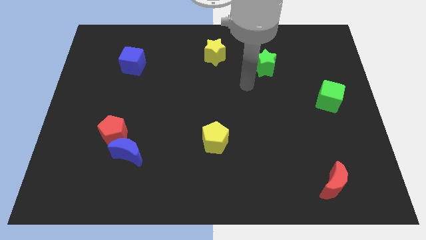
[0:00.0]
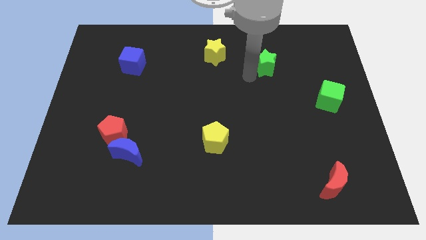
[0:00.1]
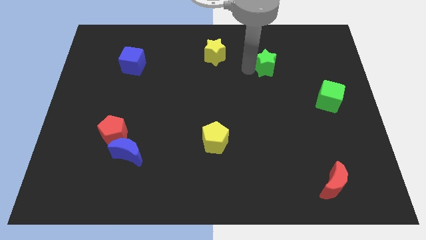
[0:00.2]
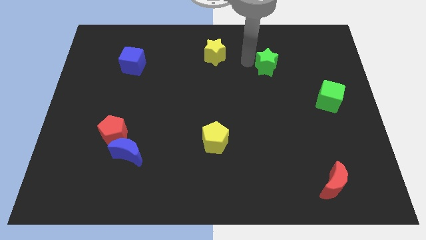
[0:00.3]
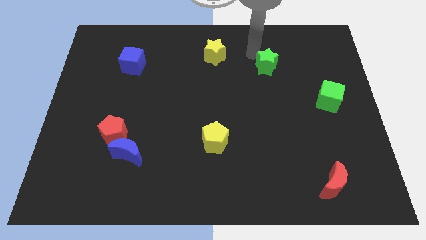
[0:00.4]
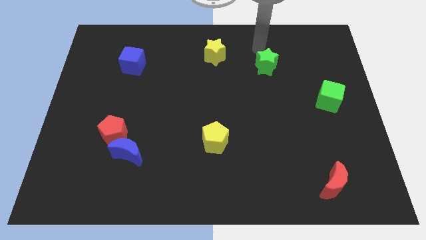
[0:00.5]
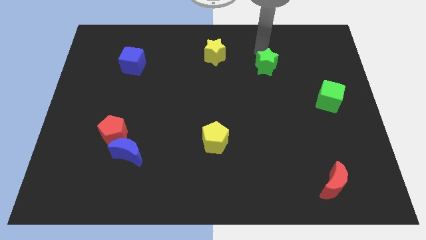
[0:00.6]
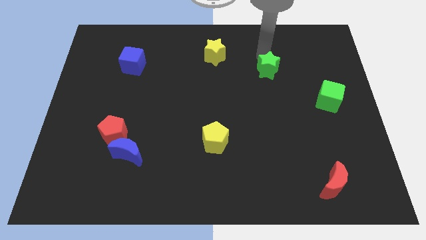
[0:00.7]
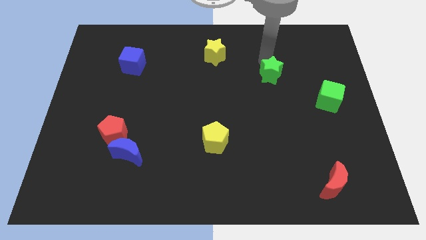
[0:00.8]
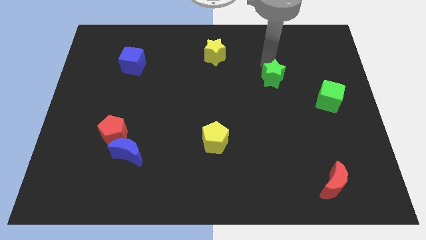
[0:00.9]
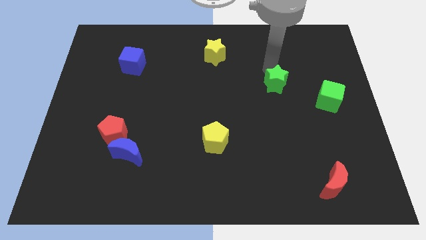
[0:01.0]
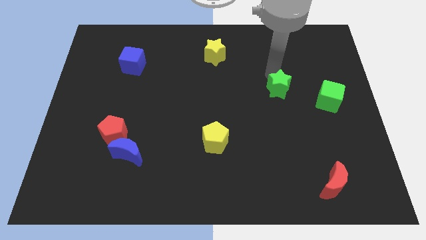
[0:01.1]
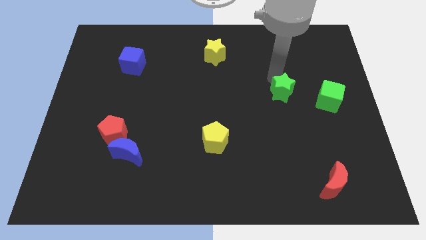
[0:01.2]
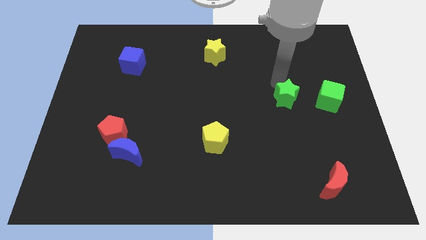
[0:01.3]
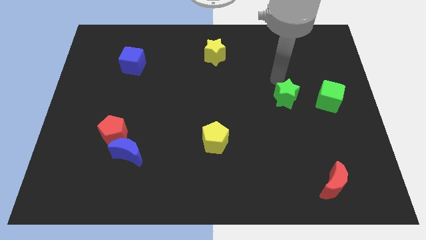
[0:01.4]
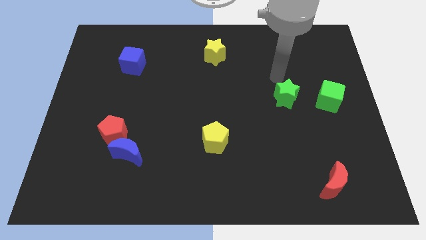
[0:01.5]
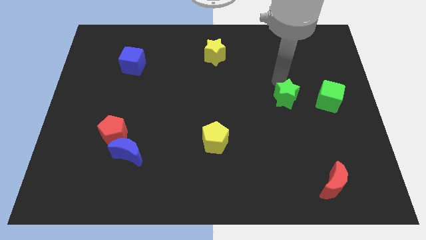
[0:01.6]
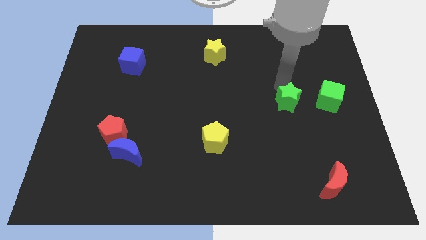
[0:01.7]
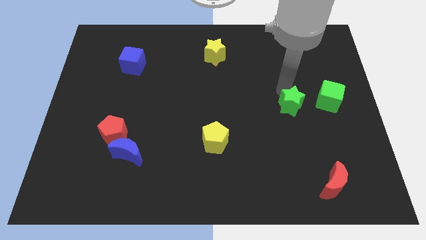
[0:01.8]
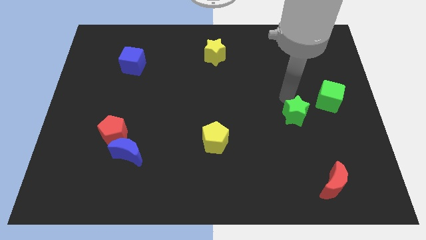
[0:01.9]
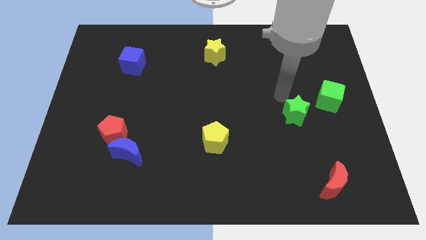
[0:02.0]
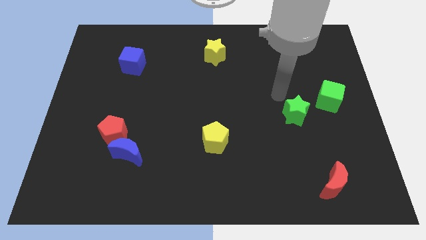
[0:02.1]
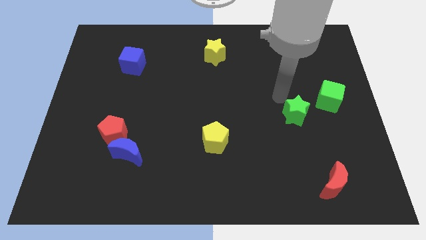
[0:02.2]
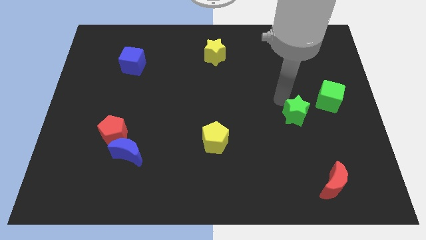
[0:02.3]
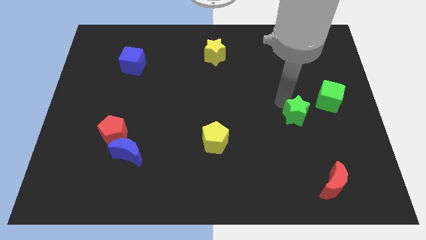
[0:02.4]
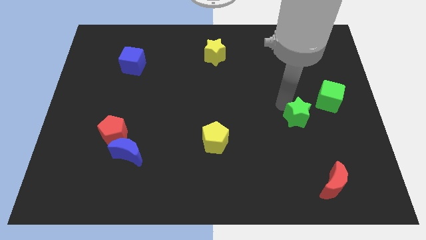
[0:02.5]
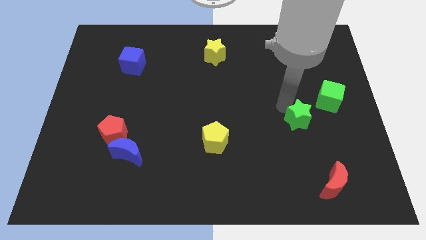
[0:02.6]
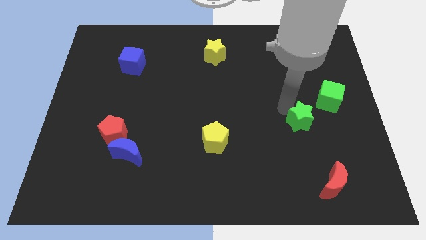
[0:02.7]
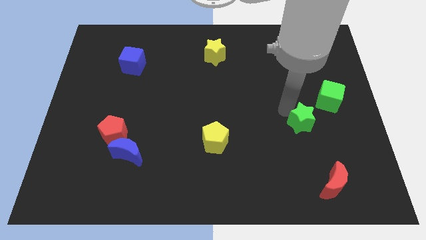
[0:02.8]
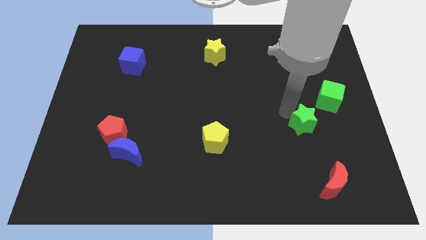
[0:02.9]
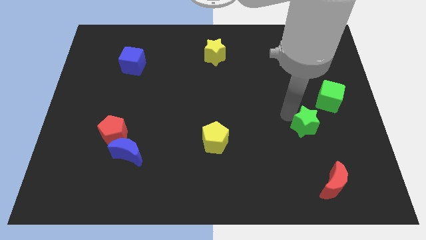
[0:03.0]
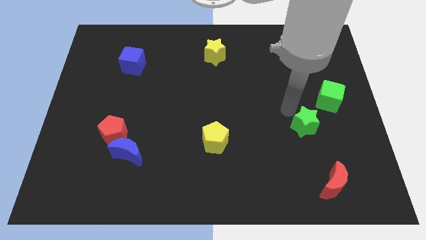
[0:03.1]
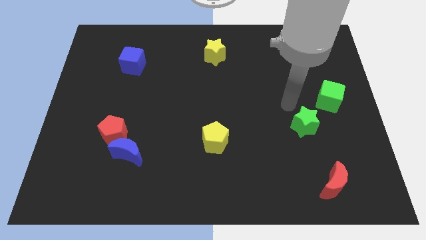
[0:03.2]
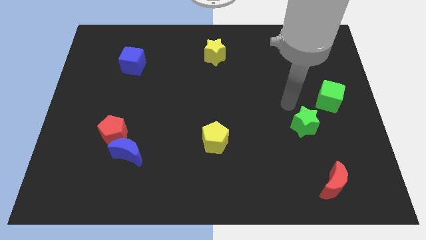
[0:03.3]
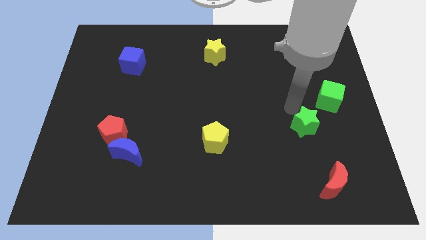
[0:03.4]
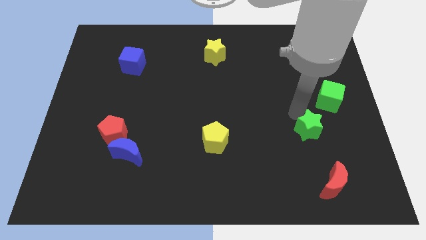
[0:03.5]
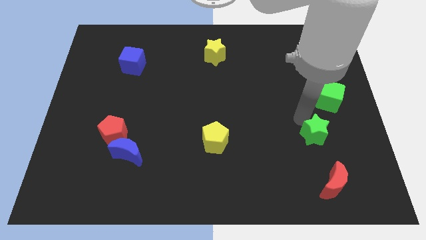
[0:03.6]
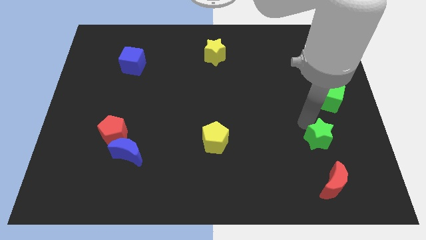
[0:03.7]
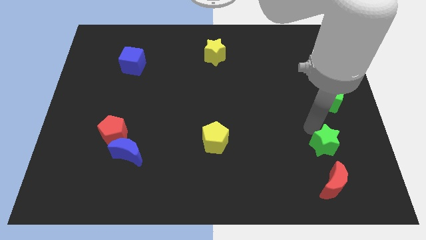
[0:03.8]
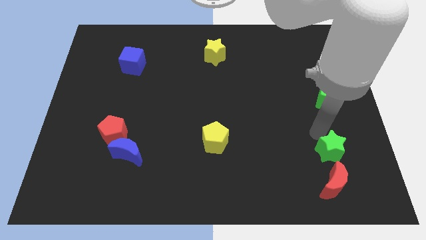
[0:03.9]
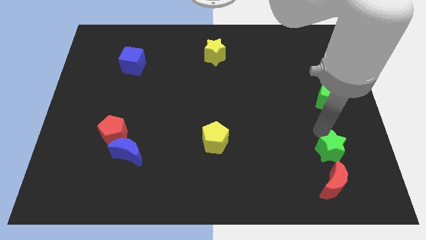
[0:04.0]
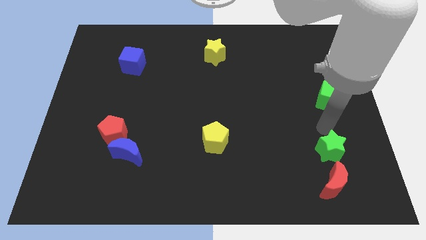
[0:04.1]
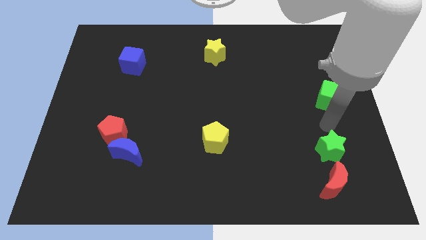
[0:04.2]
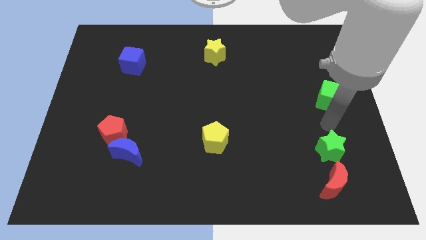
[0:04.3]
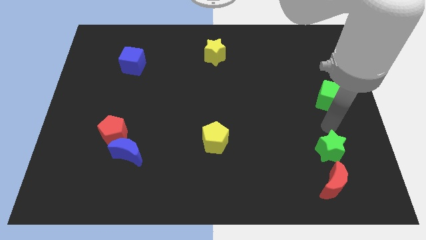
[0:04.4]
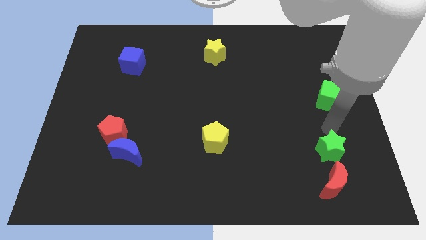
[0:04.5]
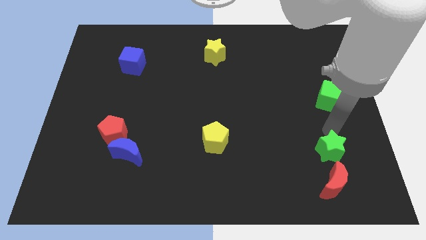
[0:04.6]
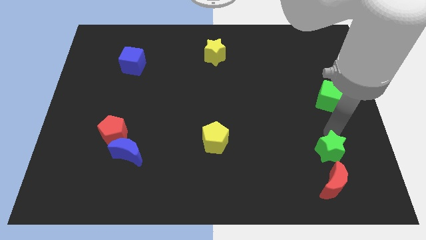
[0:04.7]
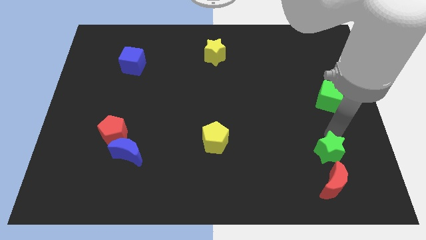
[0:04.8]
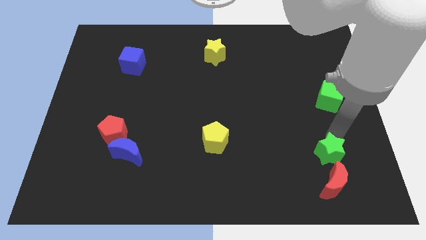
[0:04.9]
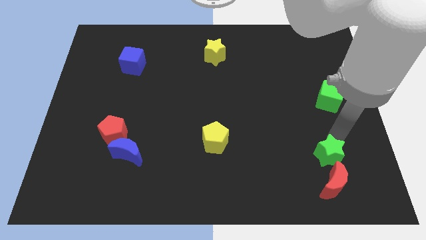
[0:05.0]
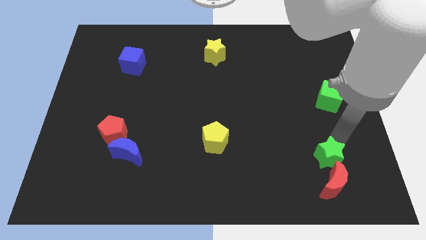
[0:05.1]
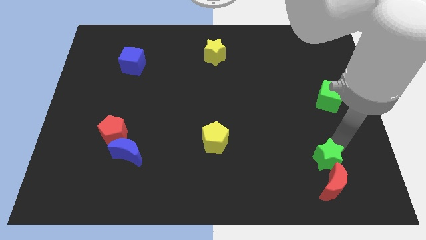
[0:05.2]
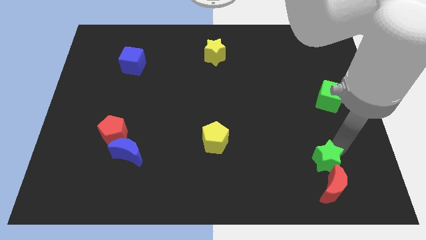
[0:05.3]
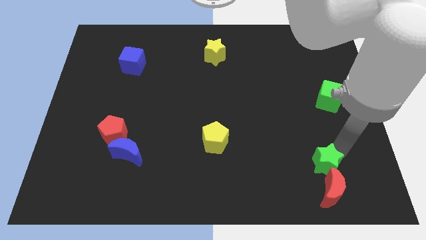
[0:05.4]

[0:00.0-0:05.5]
move the green star close to the red moon

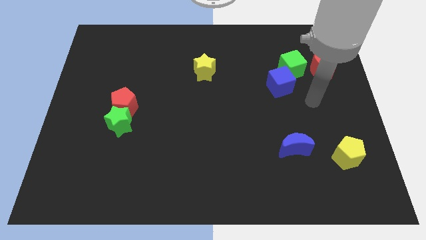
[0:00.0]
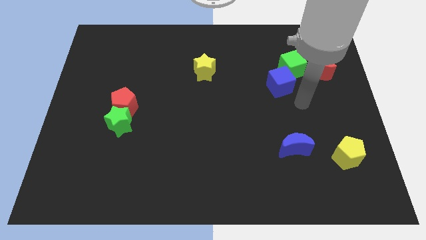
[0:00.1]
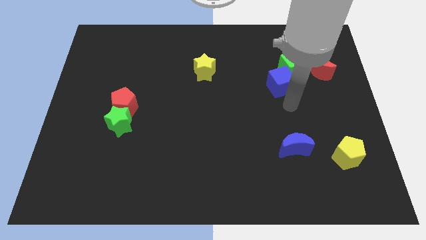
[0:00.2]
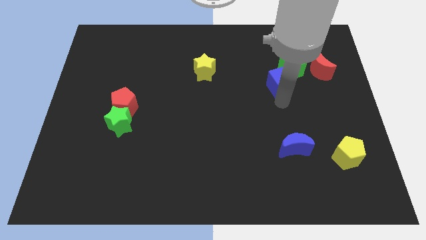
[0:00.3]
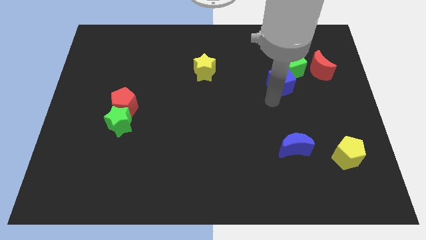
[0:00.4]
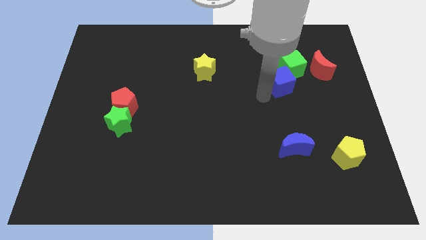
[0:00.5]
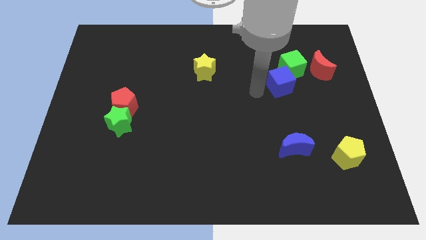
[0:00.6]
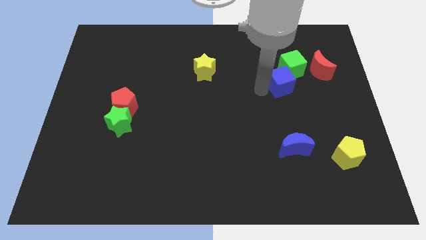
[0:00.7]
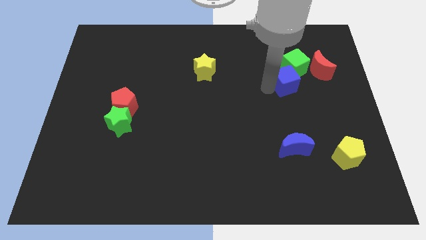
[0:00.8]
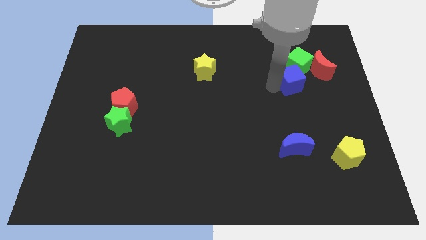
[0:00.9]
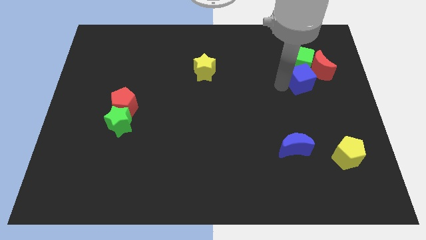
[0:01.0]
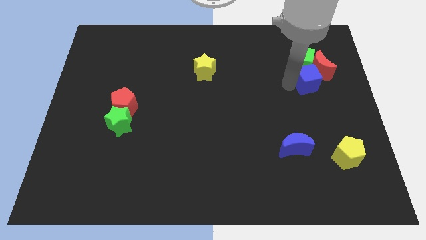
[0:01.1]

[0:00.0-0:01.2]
push the blue cube to the red moon
